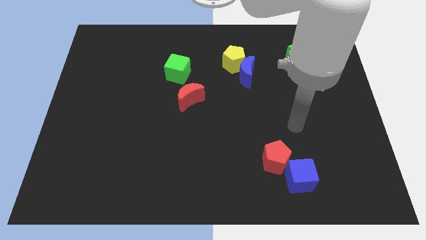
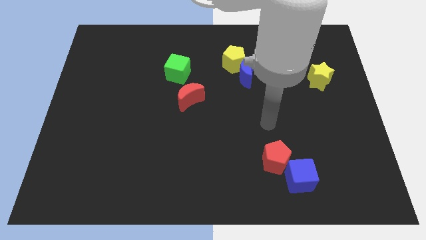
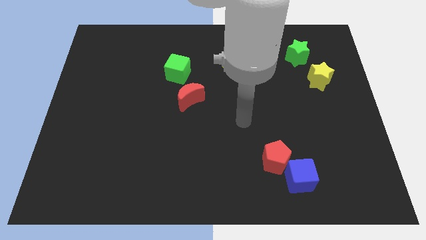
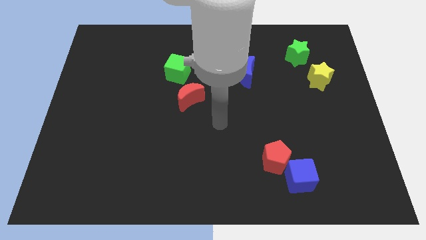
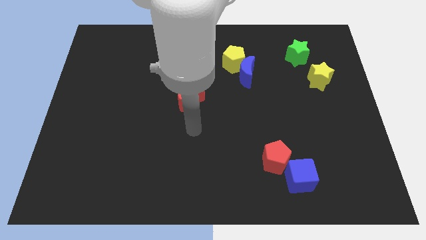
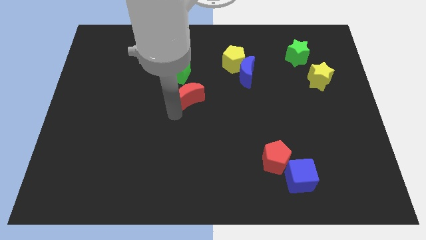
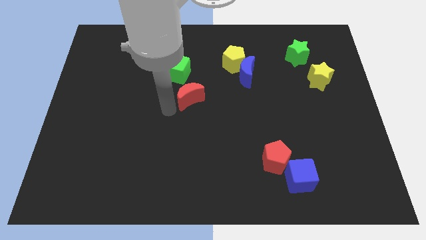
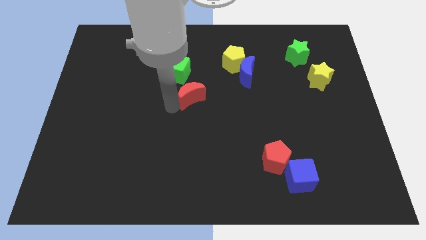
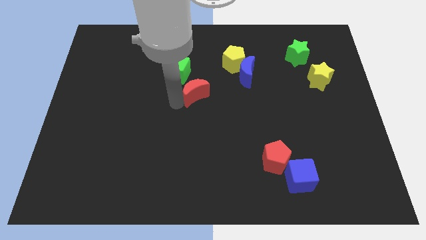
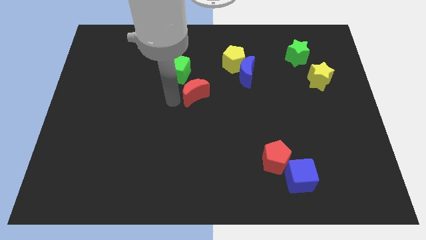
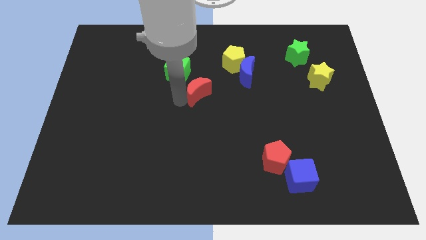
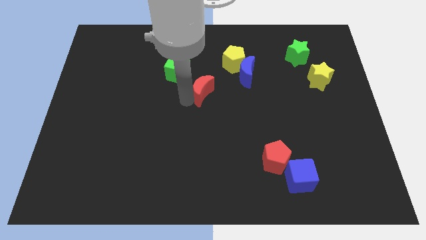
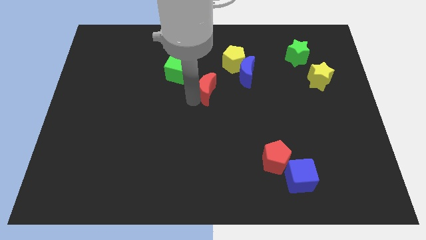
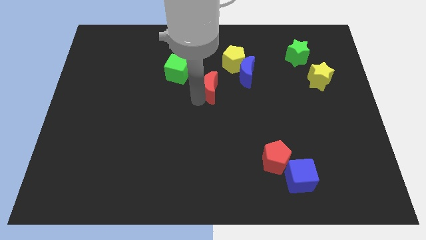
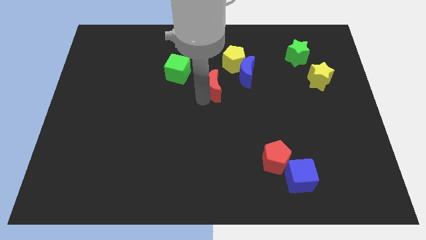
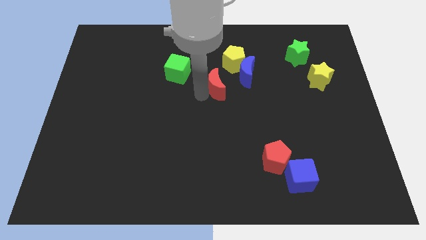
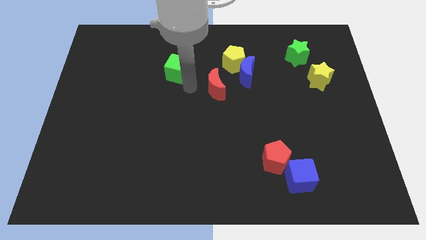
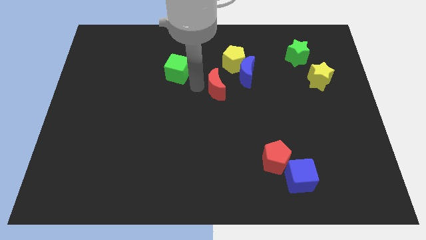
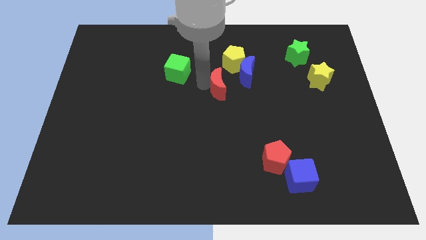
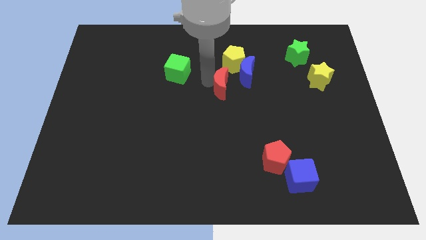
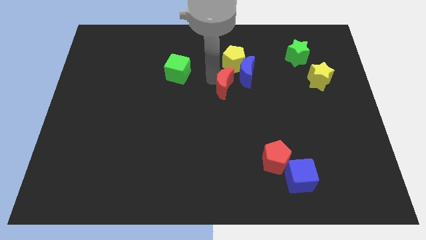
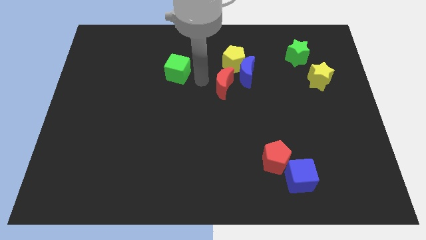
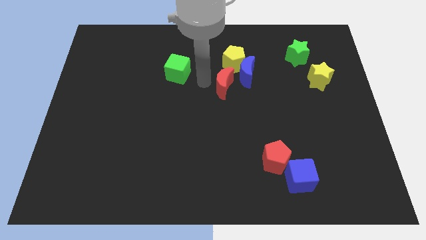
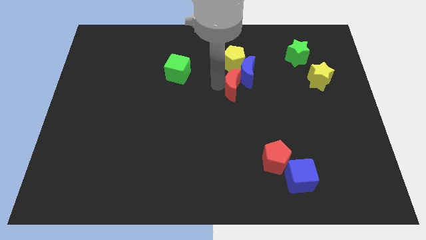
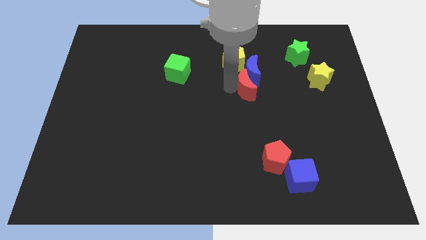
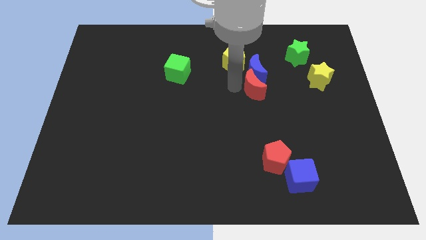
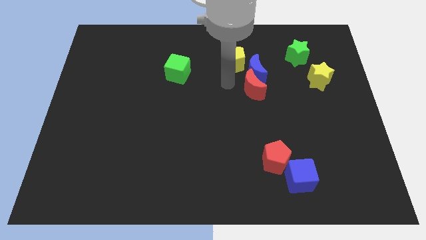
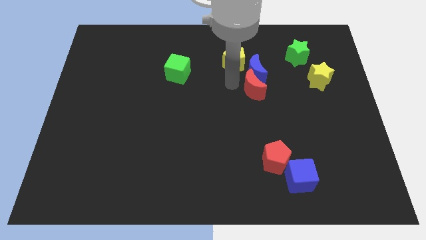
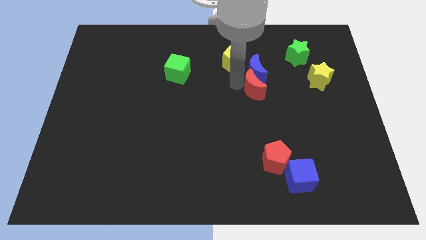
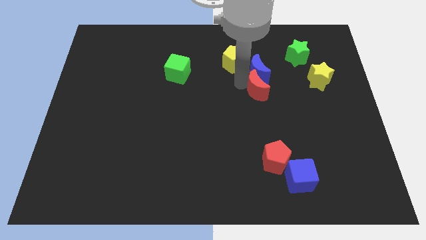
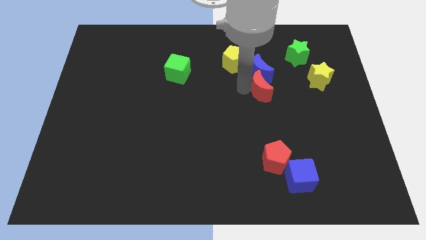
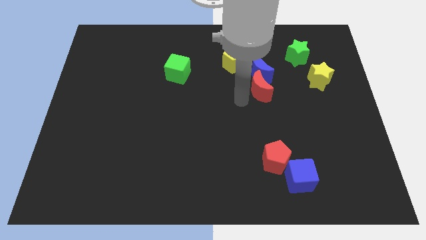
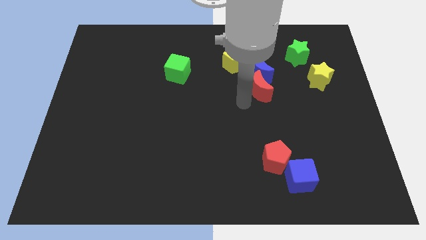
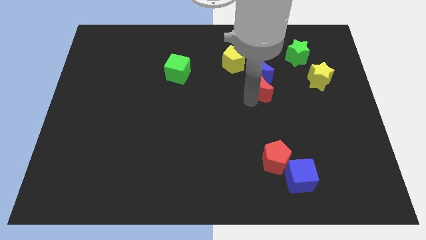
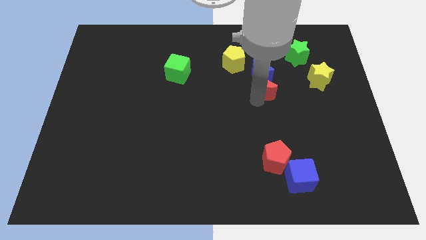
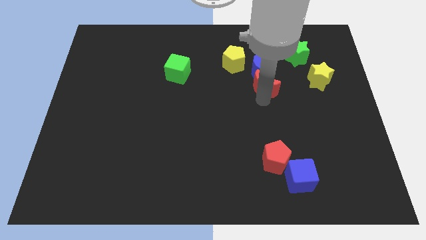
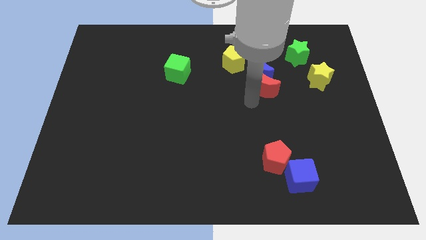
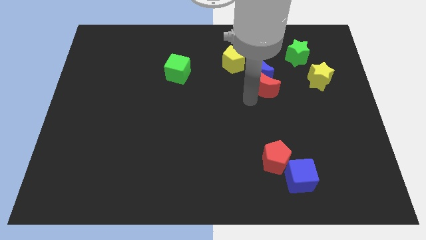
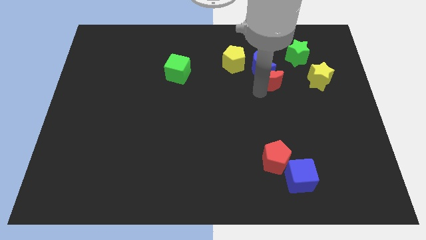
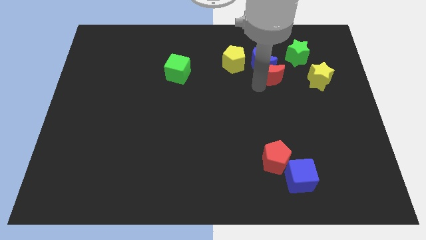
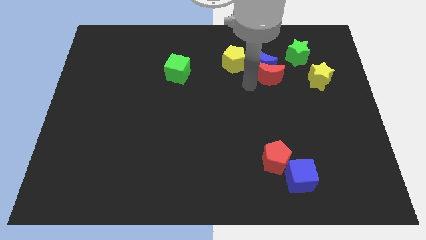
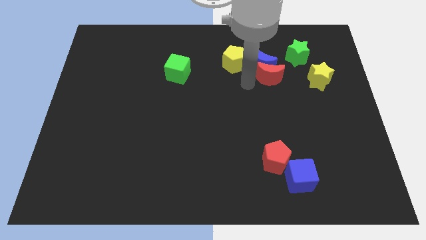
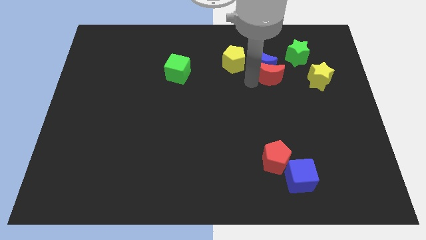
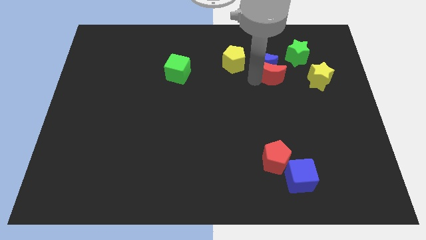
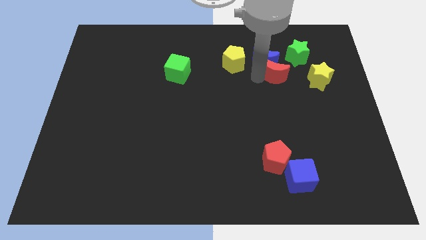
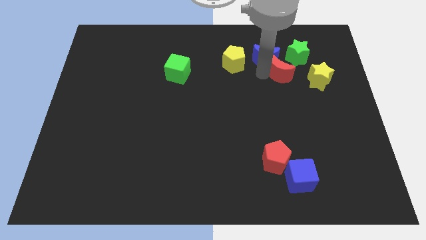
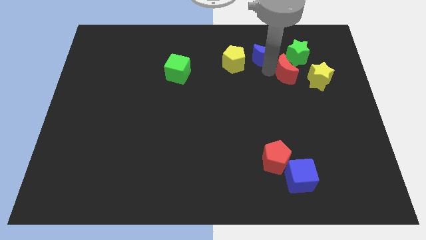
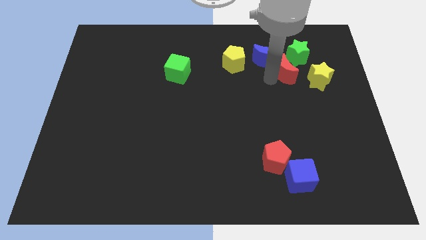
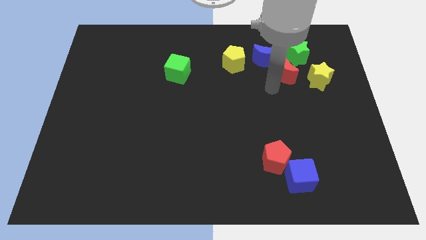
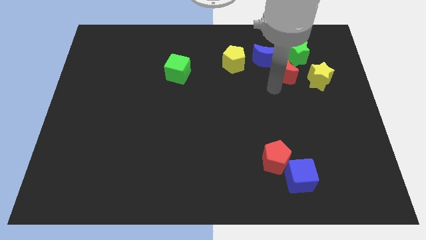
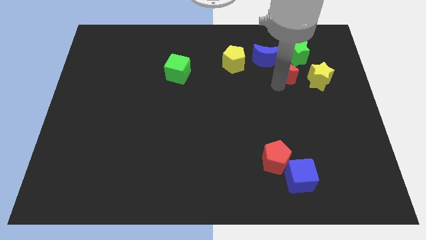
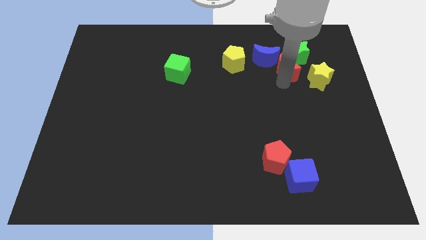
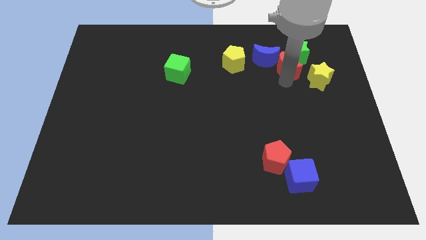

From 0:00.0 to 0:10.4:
push the red moon to the green star

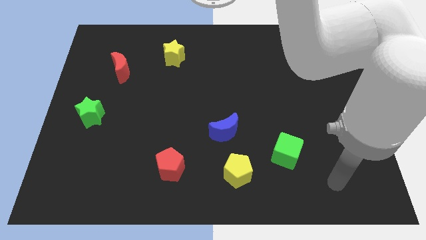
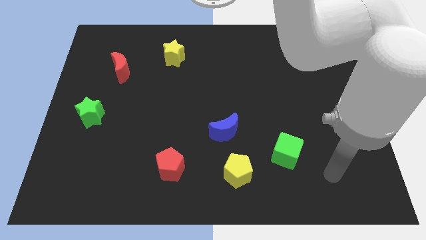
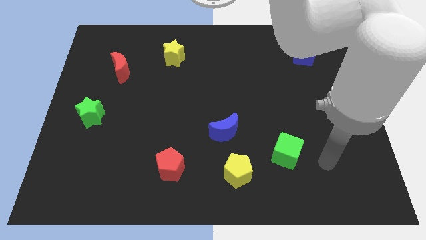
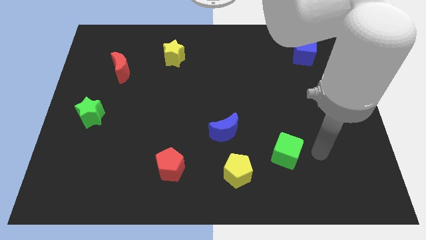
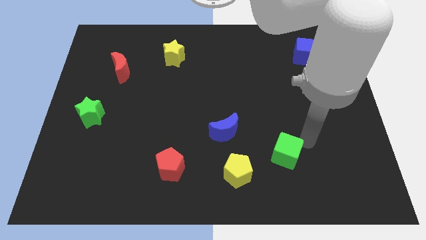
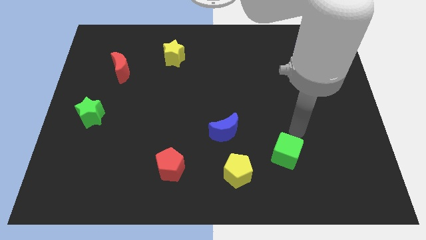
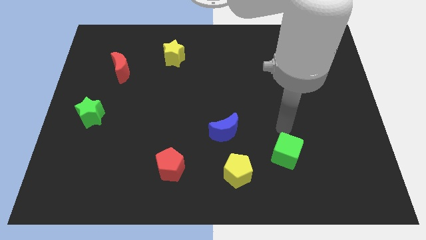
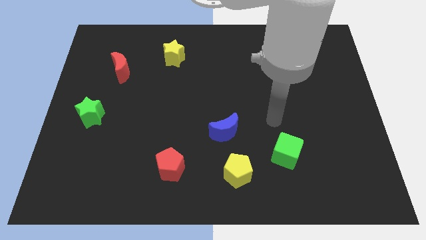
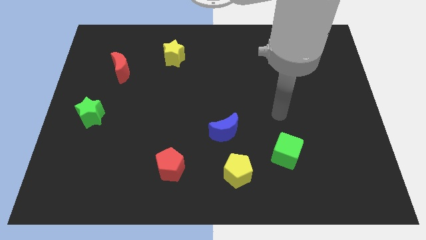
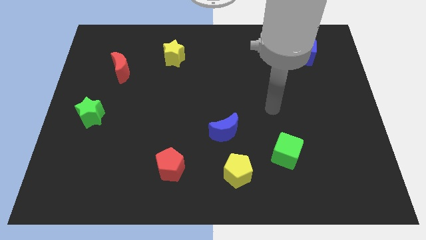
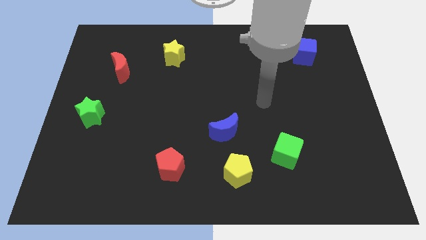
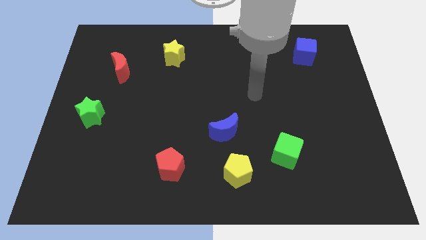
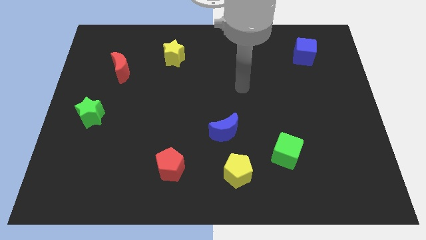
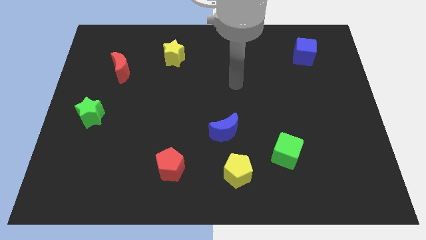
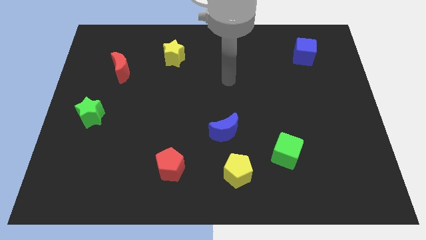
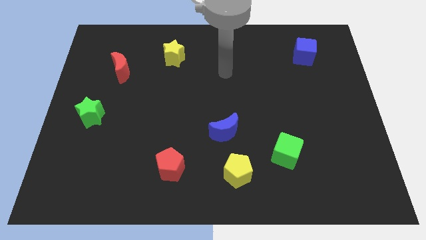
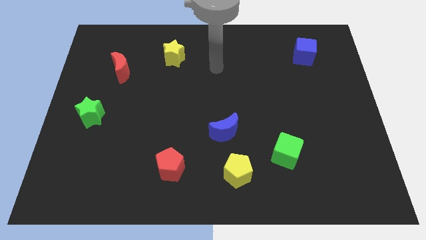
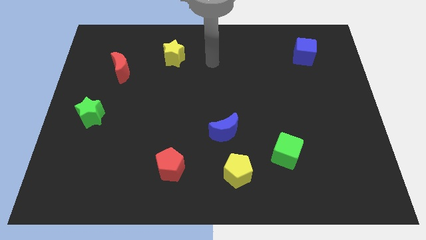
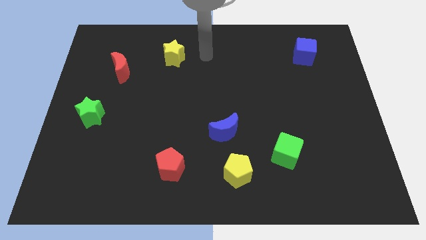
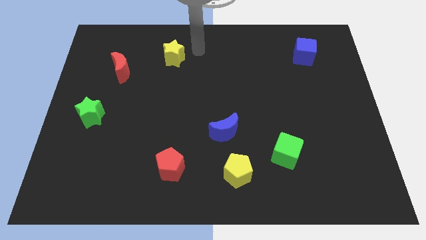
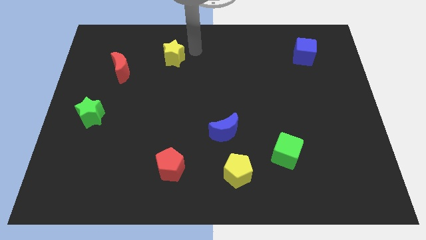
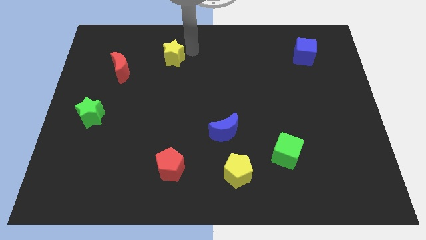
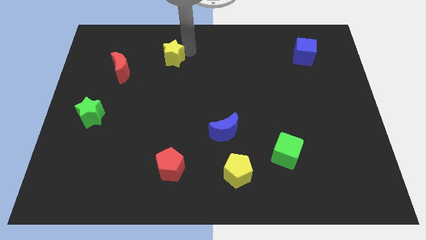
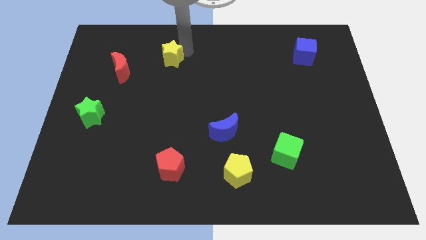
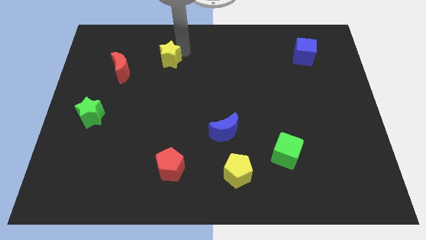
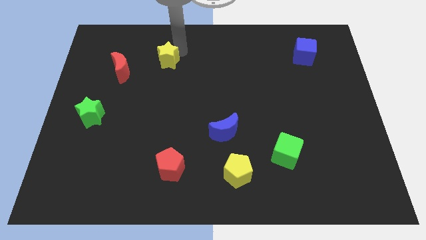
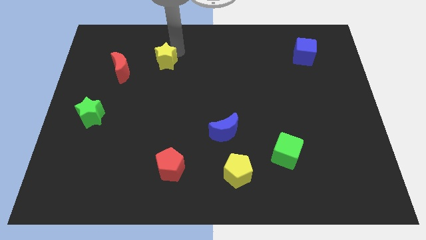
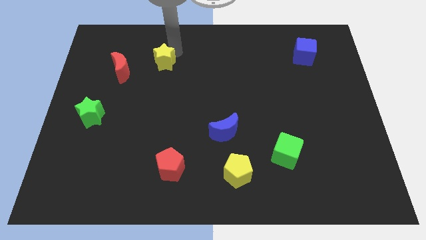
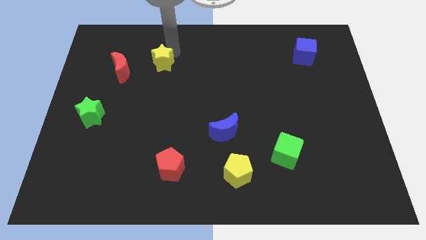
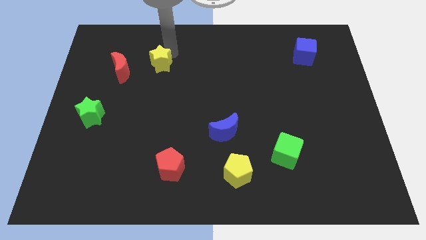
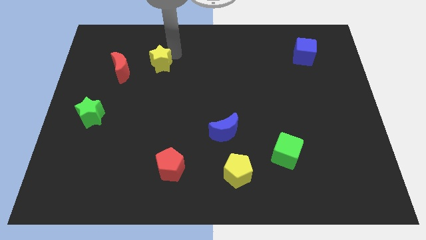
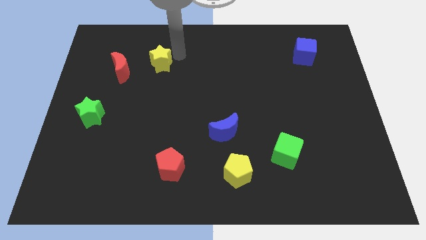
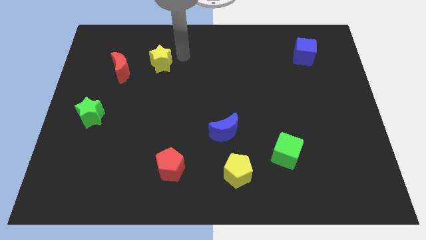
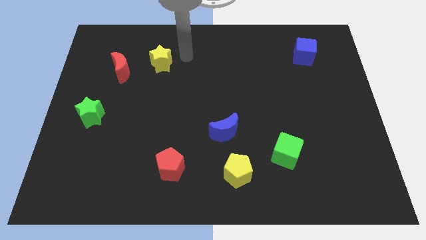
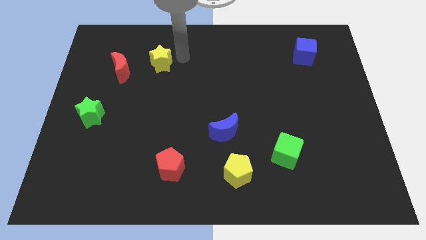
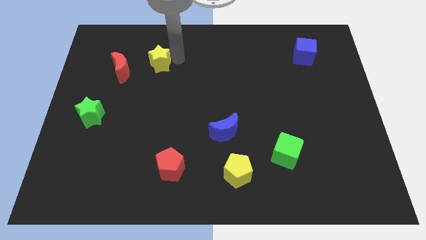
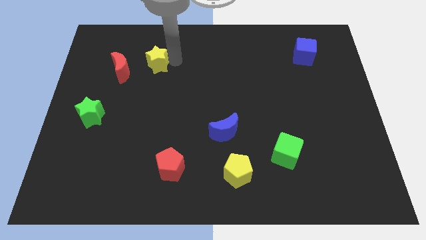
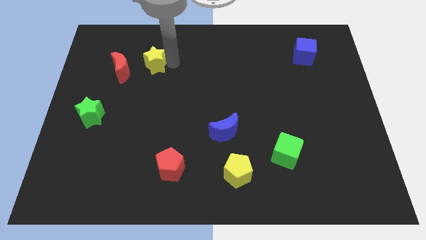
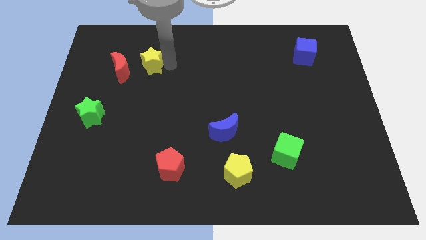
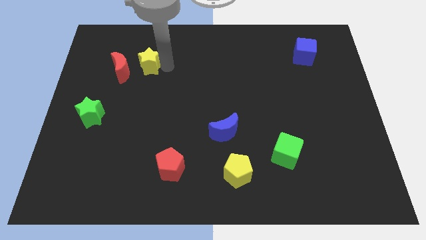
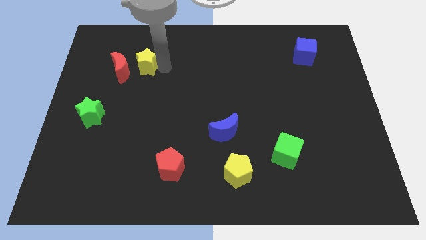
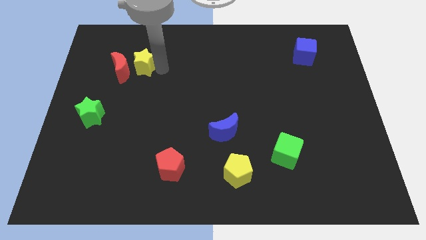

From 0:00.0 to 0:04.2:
push the yellow star next to the red moon
